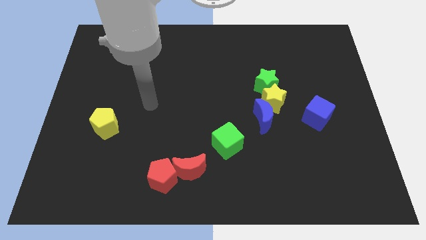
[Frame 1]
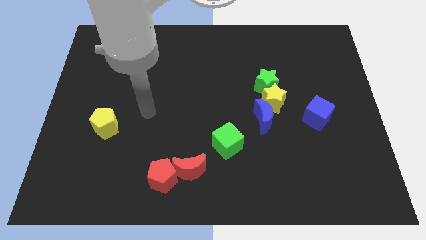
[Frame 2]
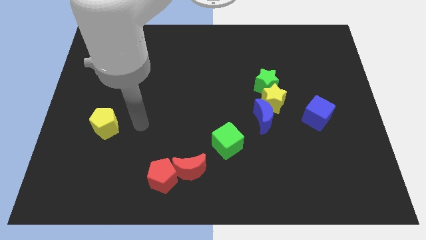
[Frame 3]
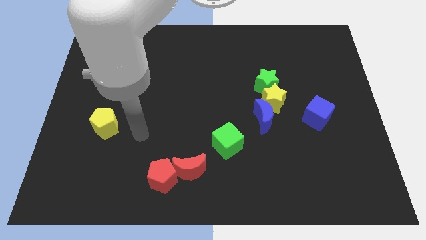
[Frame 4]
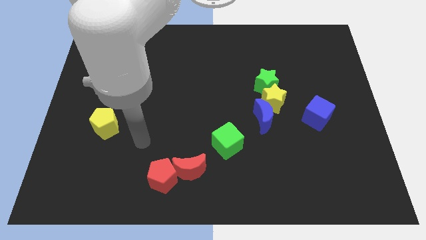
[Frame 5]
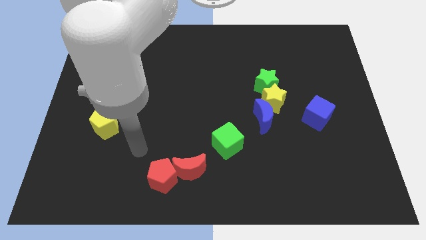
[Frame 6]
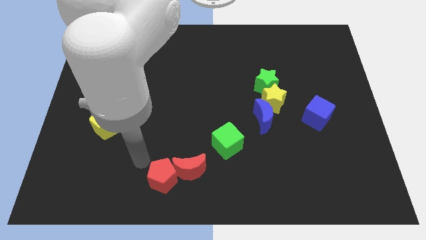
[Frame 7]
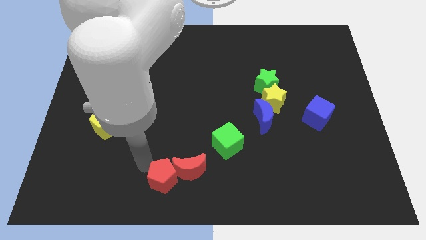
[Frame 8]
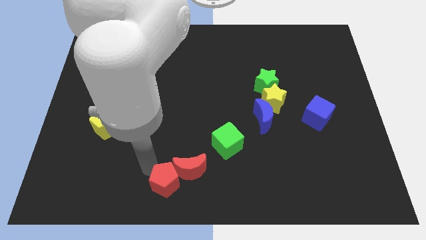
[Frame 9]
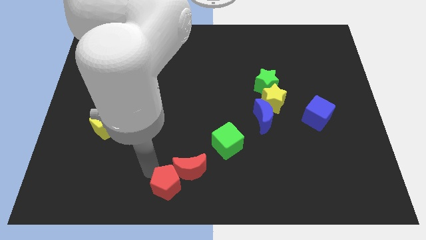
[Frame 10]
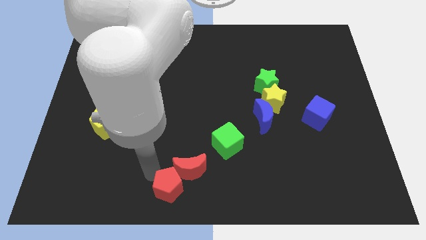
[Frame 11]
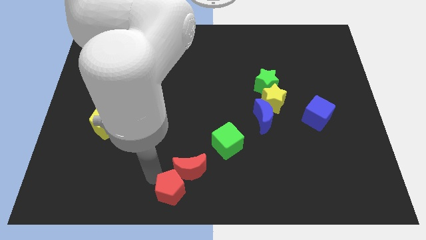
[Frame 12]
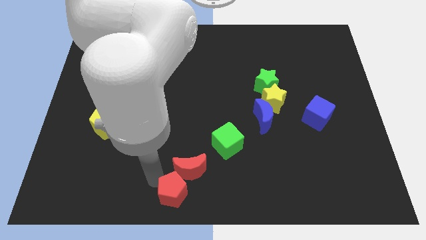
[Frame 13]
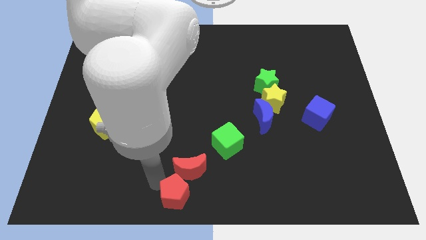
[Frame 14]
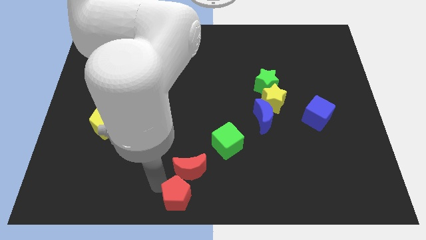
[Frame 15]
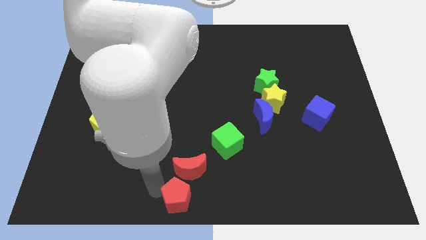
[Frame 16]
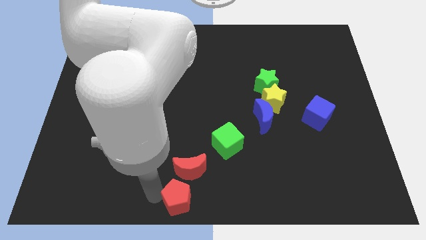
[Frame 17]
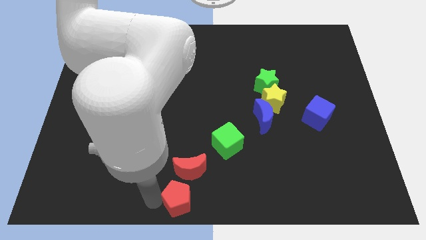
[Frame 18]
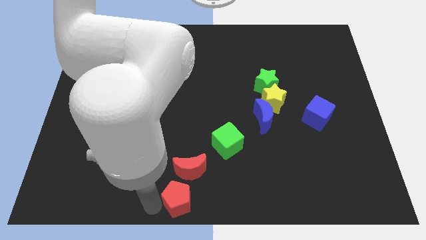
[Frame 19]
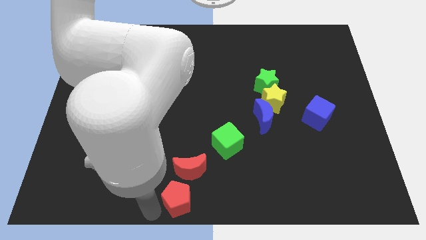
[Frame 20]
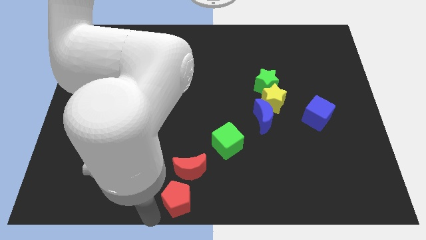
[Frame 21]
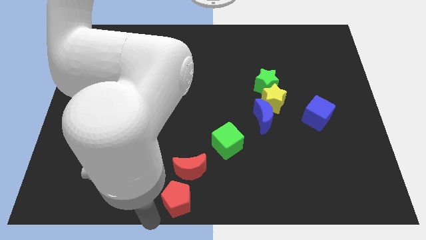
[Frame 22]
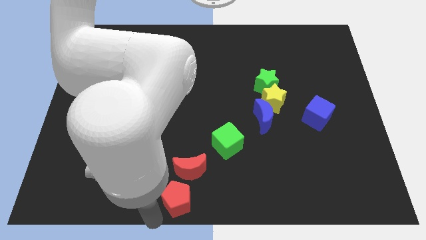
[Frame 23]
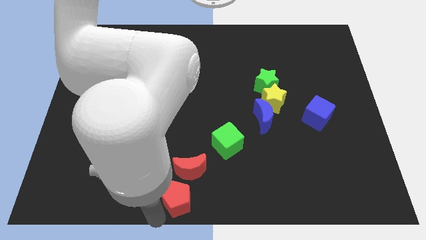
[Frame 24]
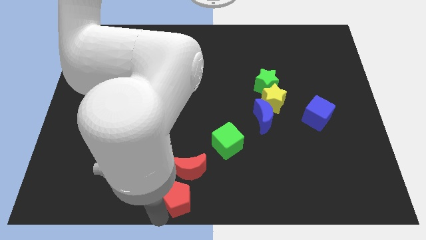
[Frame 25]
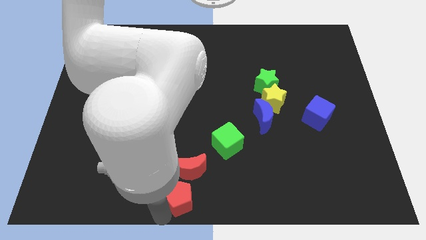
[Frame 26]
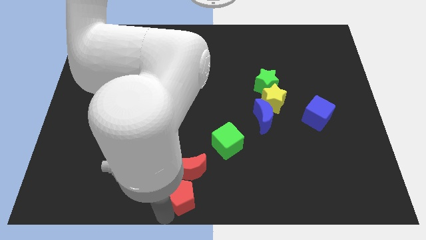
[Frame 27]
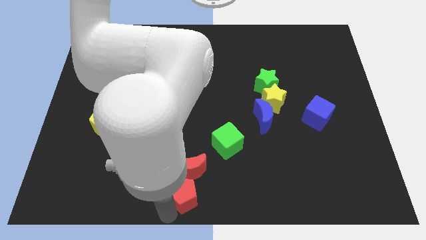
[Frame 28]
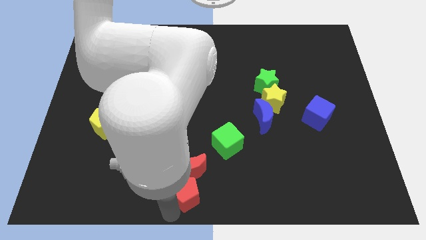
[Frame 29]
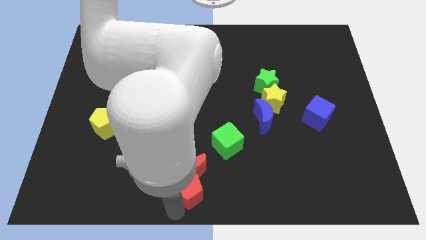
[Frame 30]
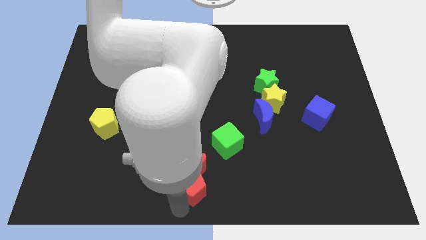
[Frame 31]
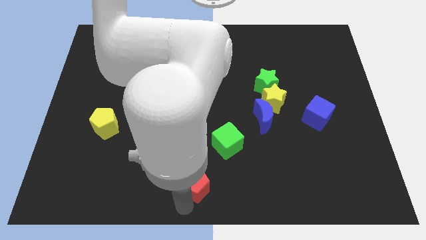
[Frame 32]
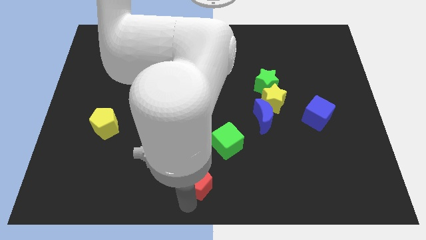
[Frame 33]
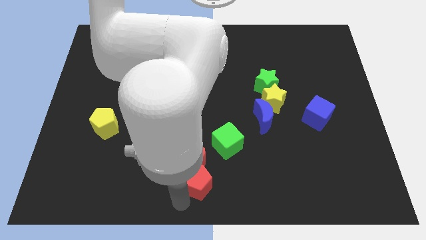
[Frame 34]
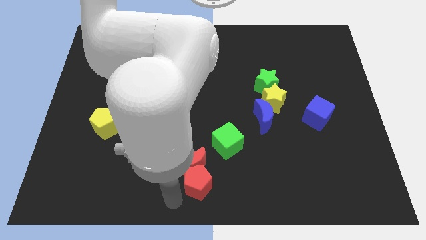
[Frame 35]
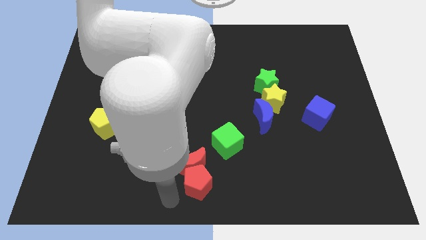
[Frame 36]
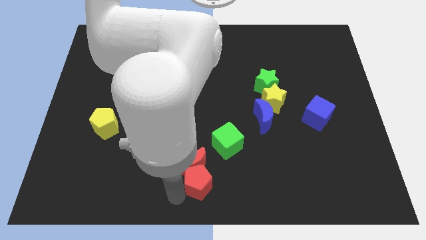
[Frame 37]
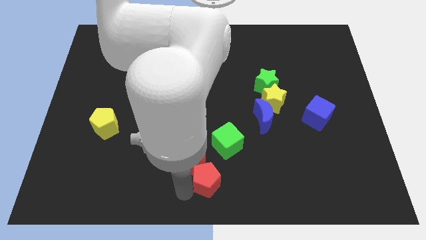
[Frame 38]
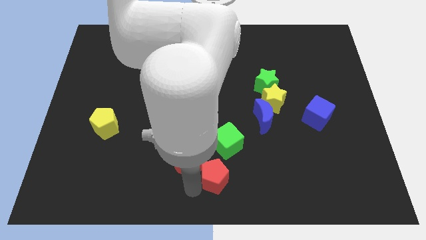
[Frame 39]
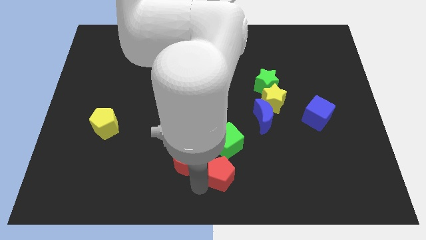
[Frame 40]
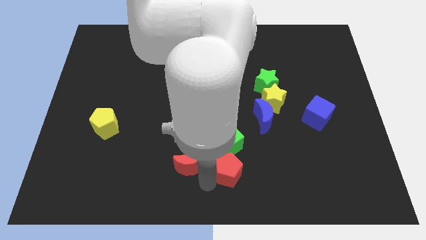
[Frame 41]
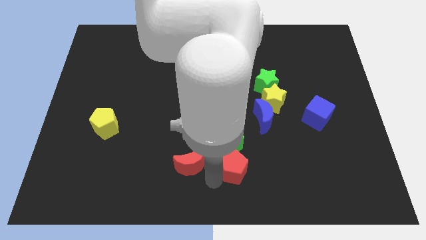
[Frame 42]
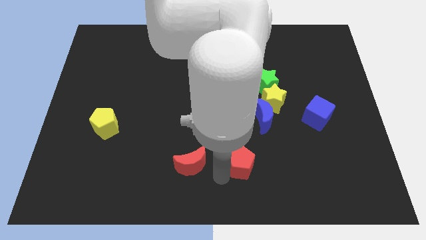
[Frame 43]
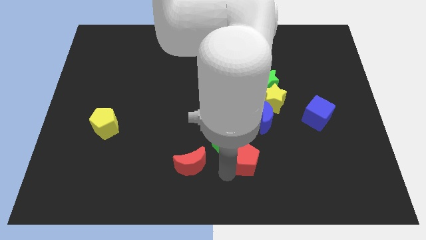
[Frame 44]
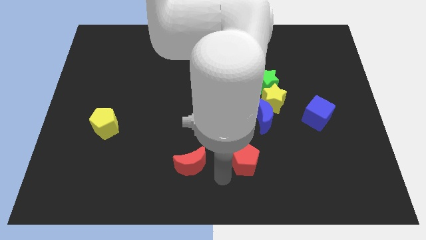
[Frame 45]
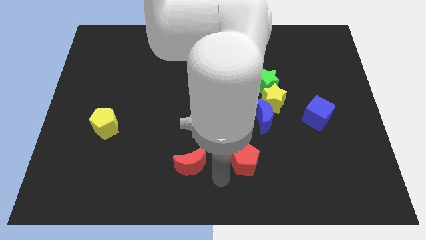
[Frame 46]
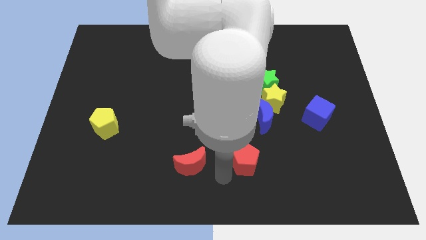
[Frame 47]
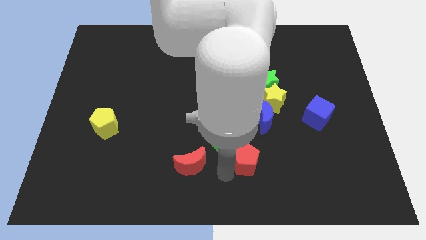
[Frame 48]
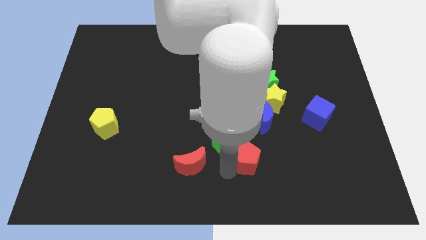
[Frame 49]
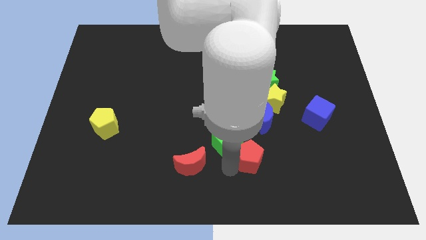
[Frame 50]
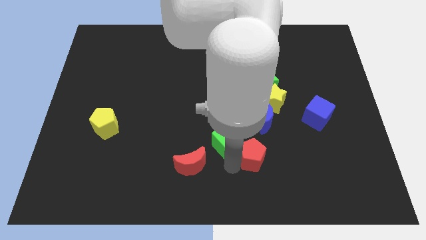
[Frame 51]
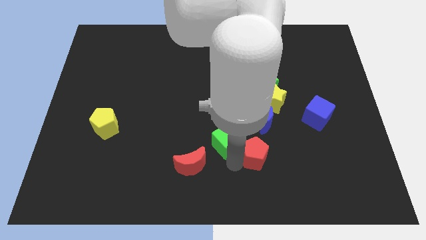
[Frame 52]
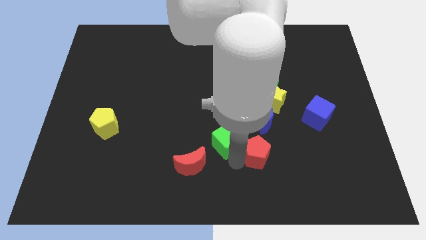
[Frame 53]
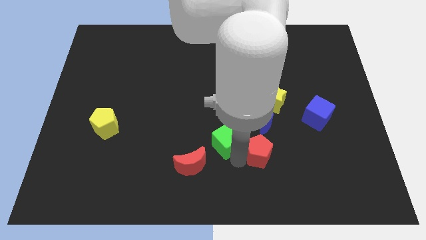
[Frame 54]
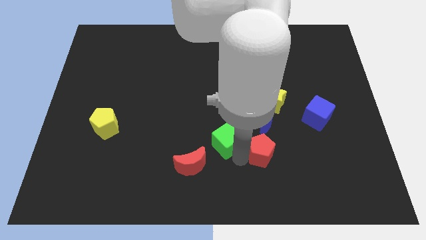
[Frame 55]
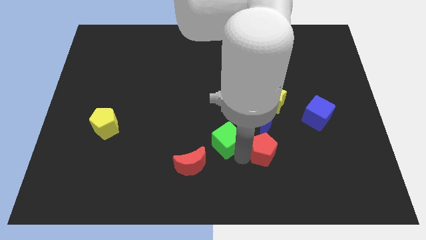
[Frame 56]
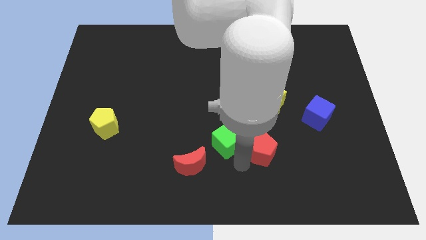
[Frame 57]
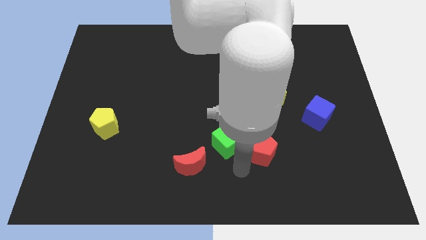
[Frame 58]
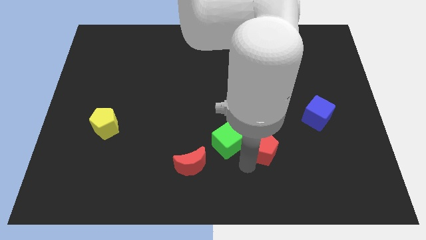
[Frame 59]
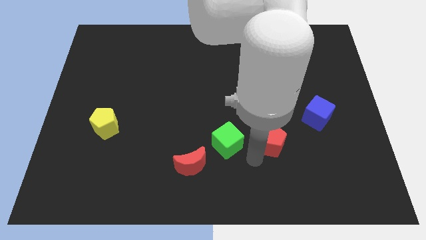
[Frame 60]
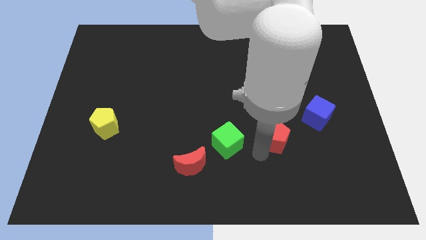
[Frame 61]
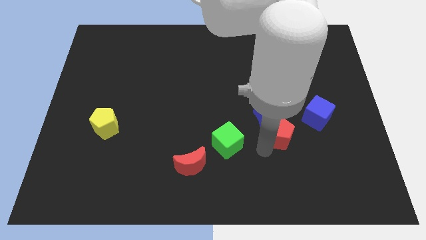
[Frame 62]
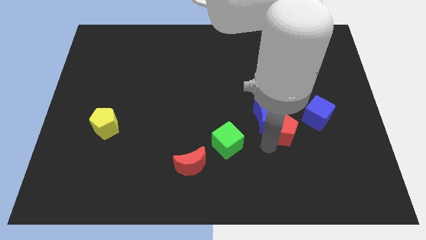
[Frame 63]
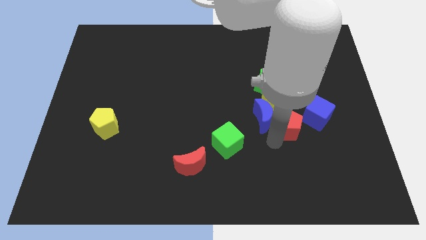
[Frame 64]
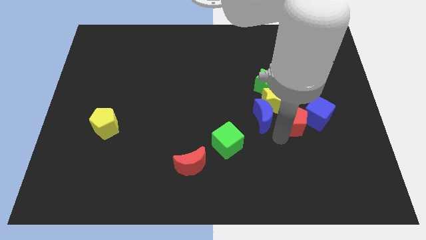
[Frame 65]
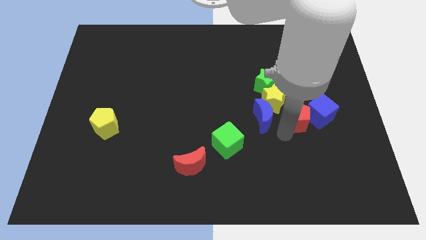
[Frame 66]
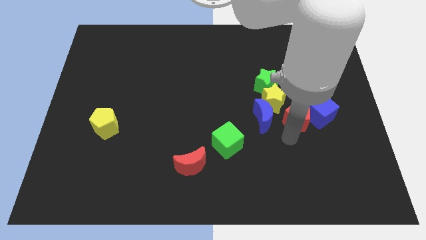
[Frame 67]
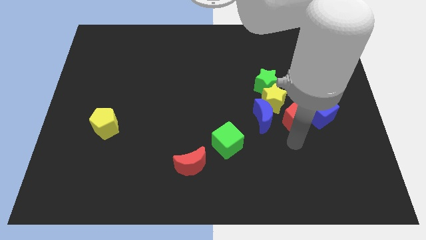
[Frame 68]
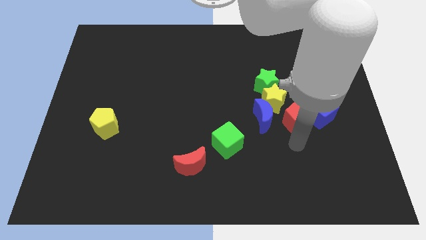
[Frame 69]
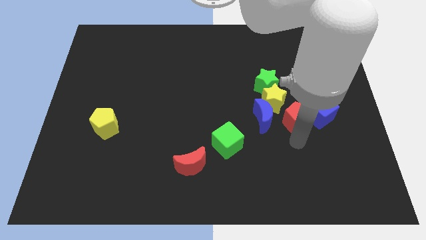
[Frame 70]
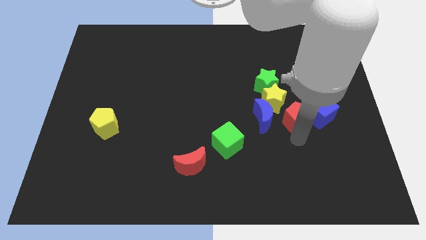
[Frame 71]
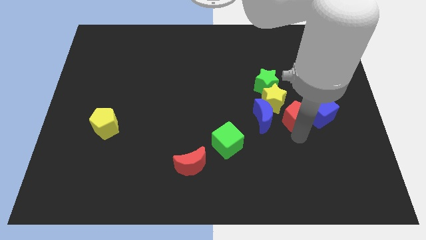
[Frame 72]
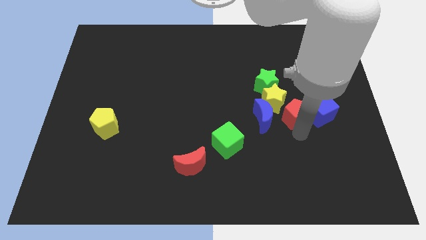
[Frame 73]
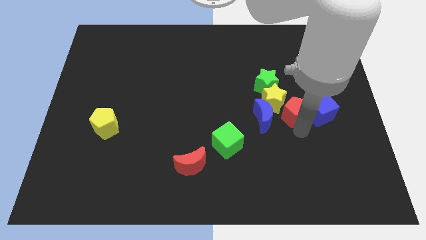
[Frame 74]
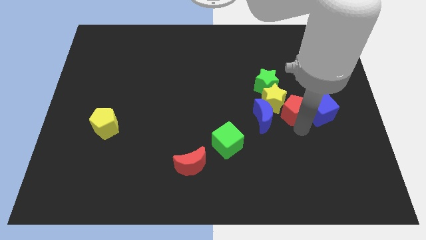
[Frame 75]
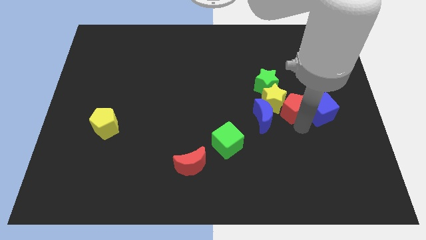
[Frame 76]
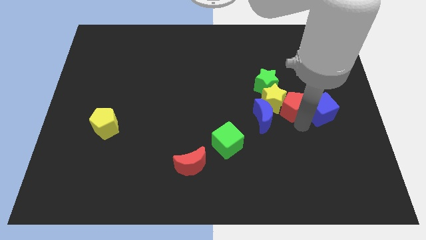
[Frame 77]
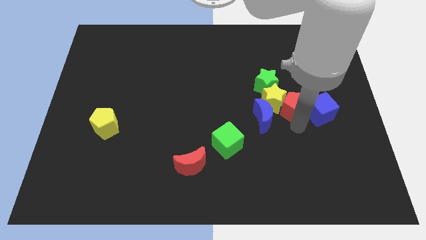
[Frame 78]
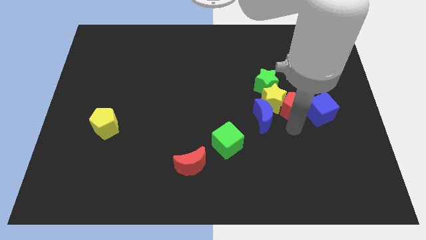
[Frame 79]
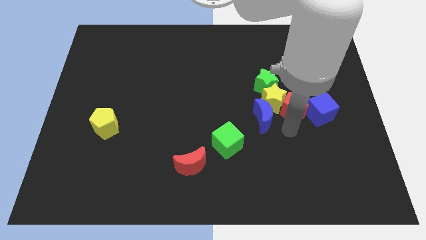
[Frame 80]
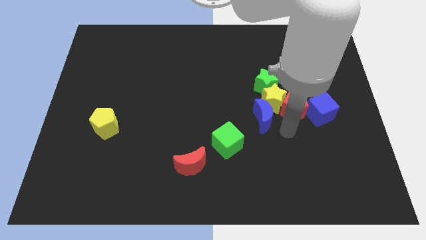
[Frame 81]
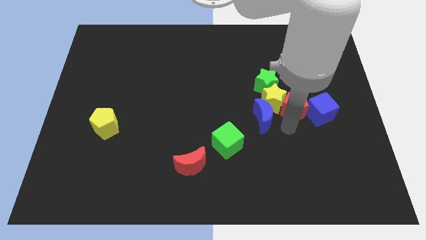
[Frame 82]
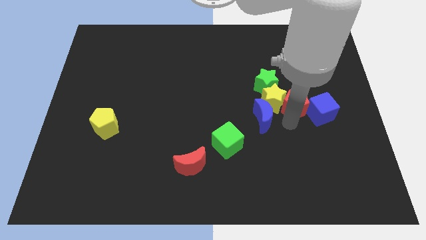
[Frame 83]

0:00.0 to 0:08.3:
push the red pentagon diagonally up and to the right of the yellow star

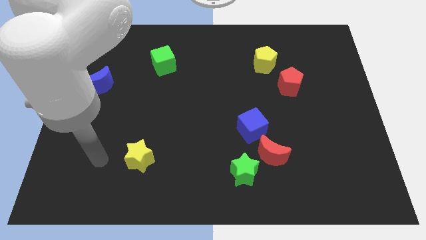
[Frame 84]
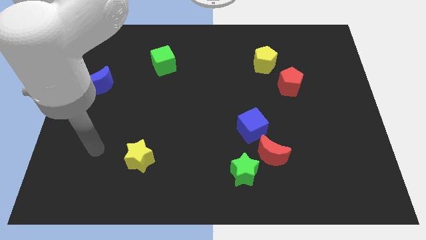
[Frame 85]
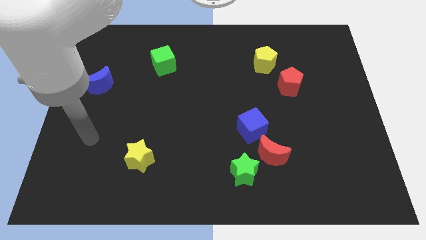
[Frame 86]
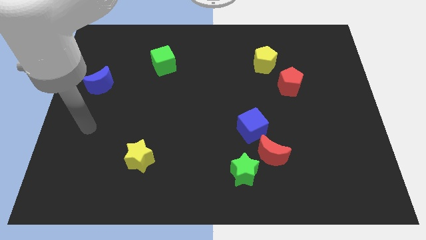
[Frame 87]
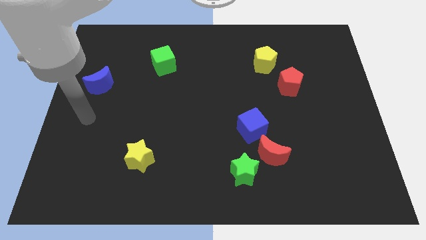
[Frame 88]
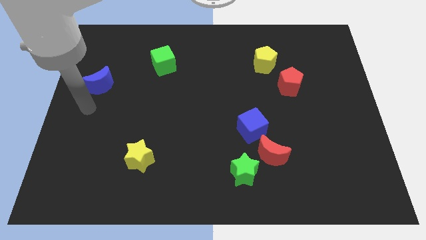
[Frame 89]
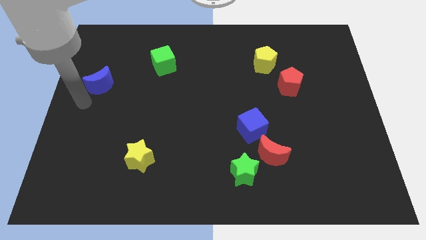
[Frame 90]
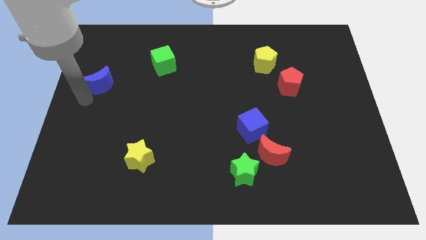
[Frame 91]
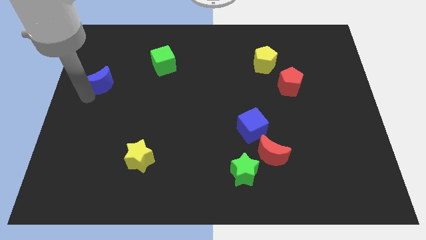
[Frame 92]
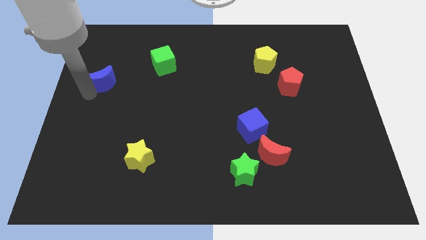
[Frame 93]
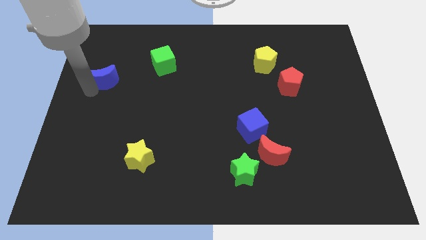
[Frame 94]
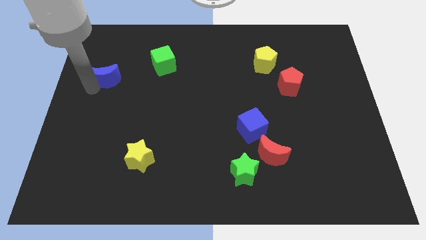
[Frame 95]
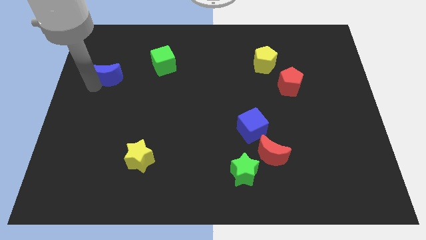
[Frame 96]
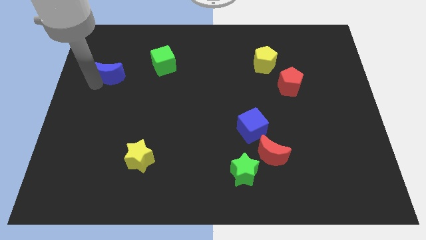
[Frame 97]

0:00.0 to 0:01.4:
put the blue moon to the left side of the green cube
